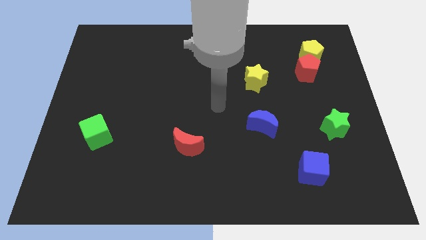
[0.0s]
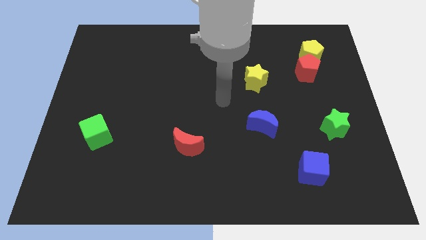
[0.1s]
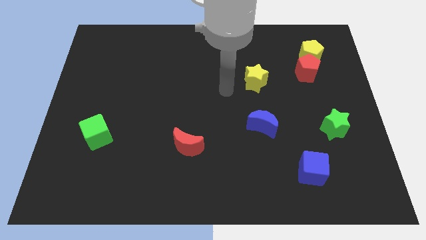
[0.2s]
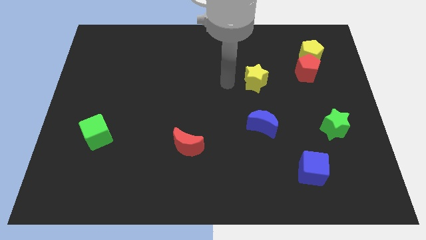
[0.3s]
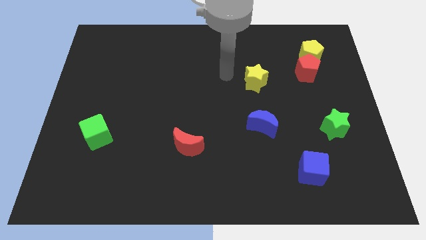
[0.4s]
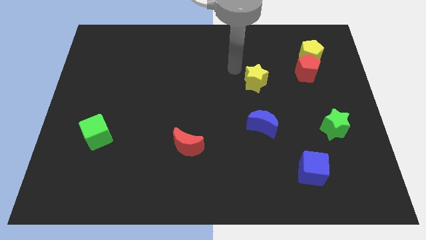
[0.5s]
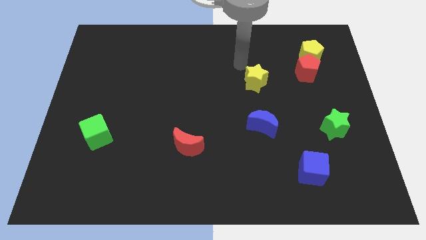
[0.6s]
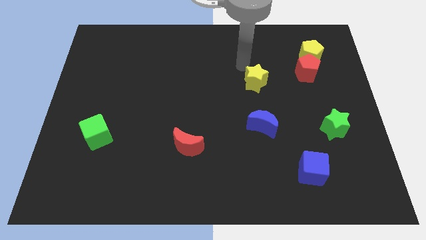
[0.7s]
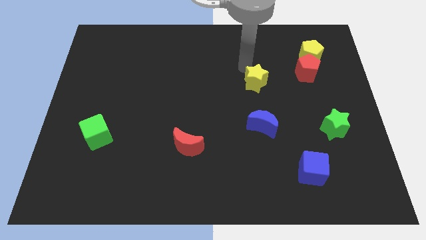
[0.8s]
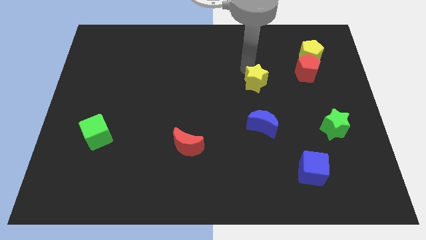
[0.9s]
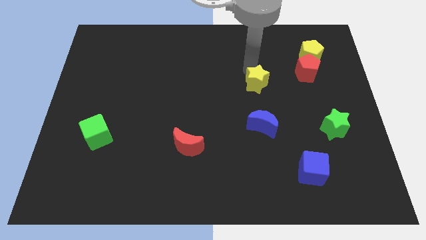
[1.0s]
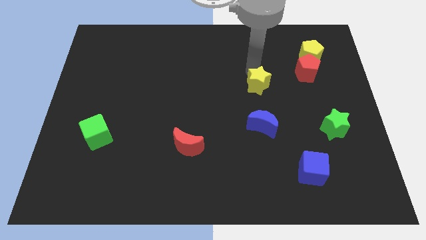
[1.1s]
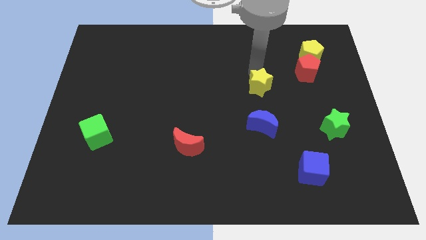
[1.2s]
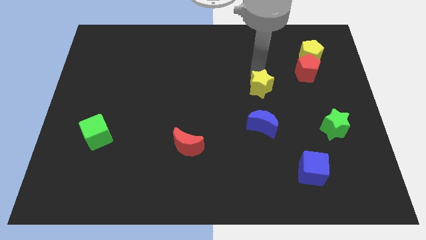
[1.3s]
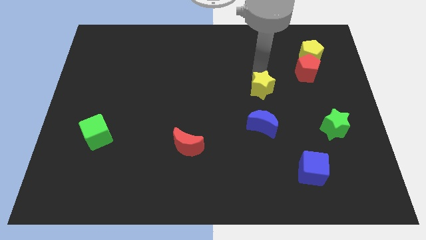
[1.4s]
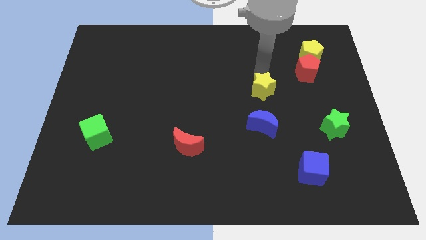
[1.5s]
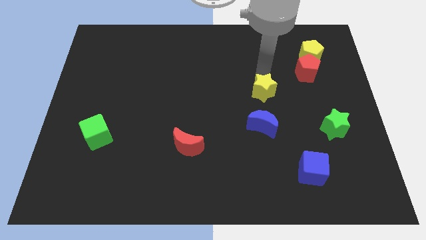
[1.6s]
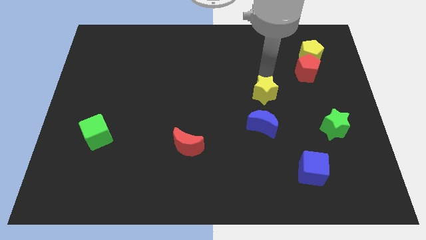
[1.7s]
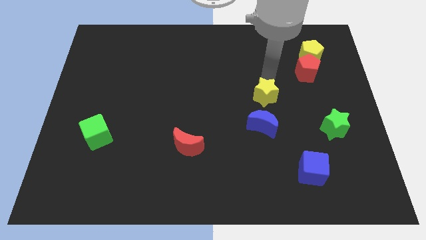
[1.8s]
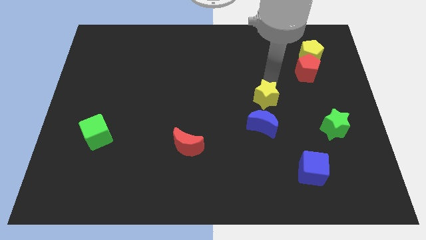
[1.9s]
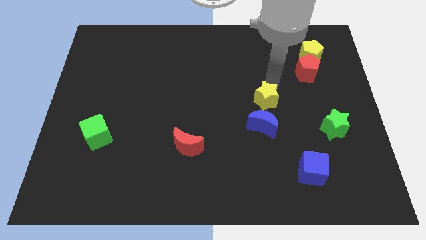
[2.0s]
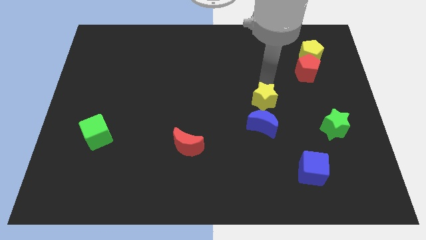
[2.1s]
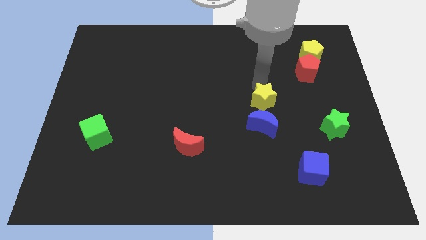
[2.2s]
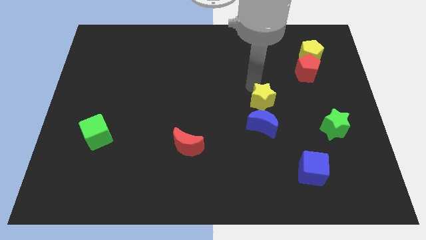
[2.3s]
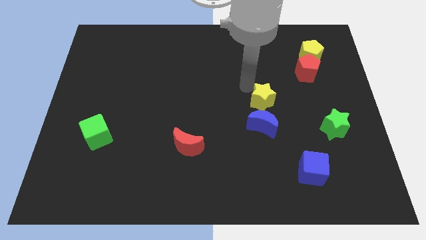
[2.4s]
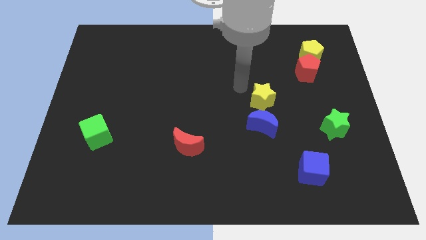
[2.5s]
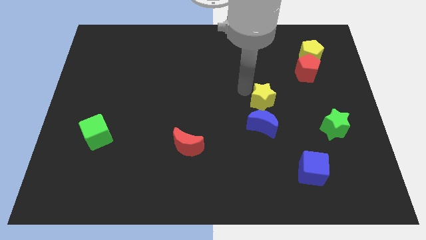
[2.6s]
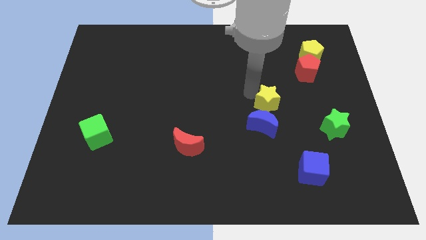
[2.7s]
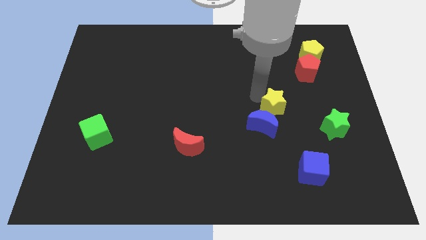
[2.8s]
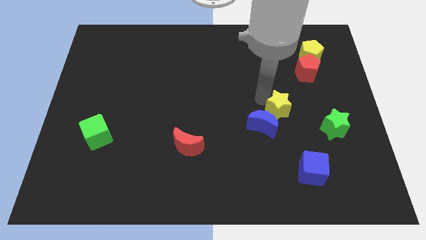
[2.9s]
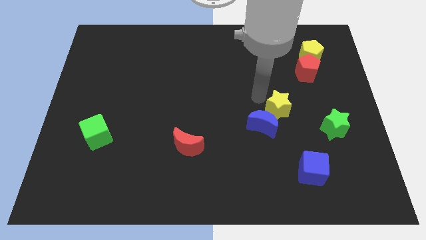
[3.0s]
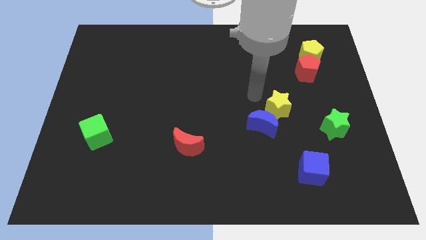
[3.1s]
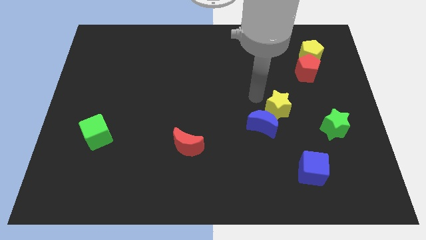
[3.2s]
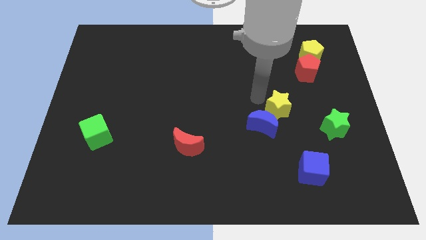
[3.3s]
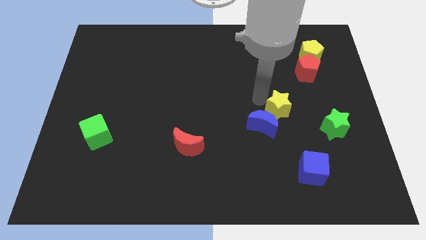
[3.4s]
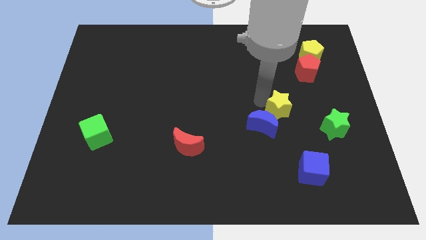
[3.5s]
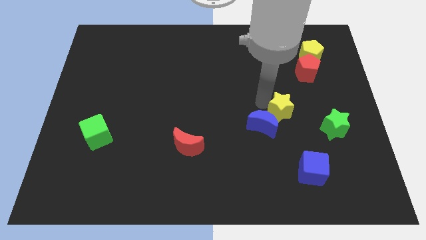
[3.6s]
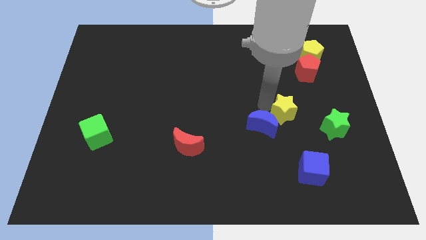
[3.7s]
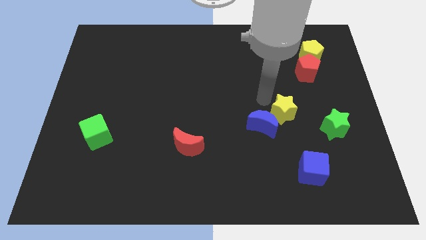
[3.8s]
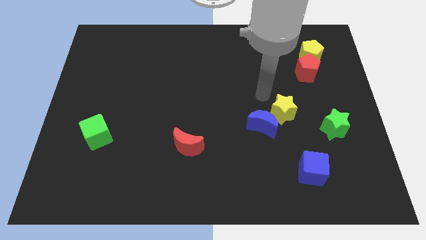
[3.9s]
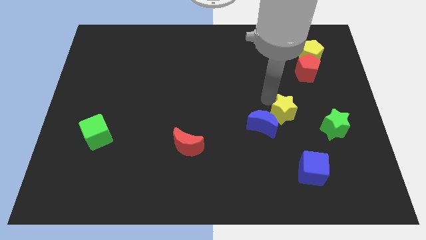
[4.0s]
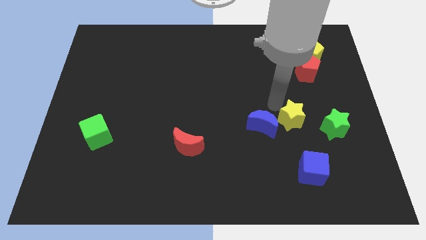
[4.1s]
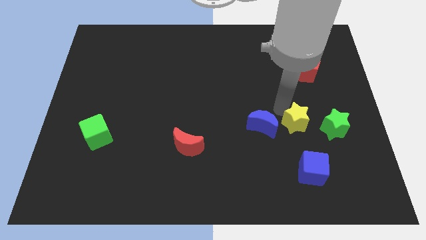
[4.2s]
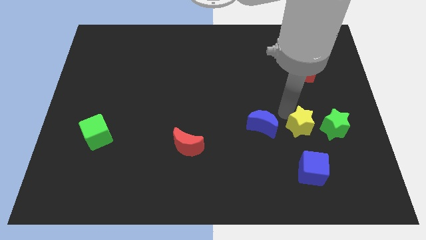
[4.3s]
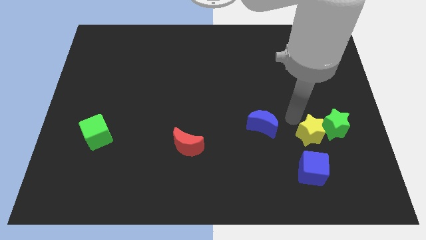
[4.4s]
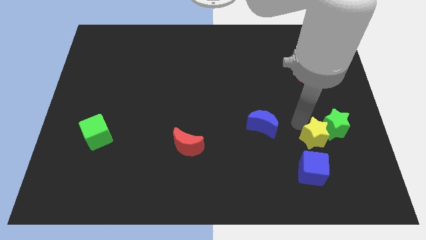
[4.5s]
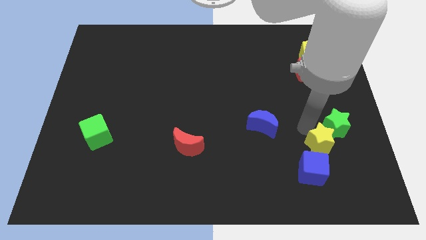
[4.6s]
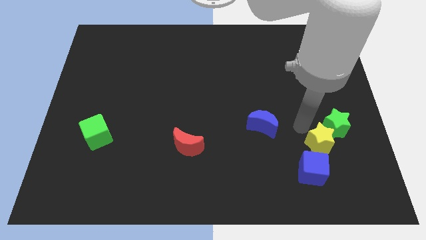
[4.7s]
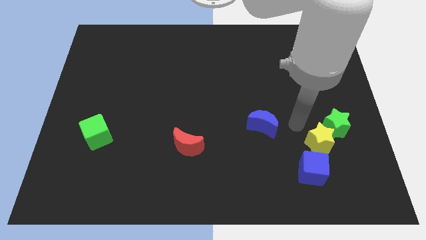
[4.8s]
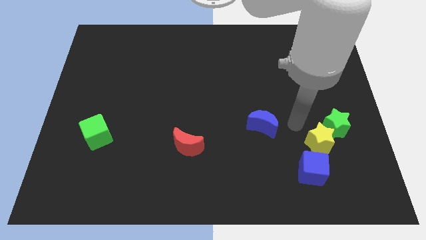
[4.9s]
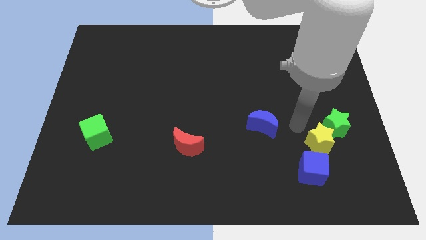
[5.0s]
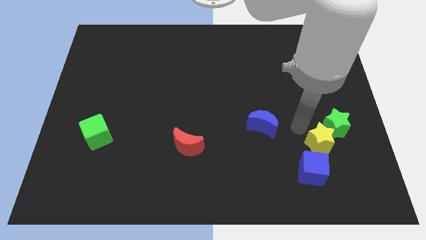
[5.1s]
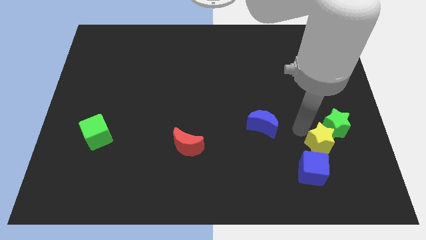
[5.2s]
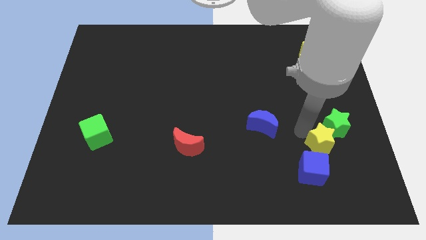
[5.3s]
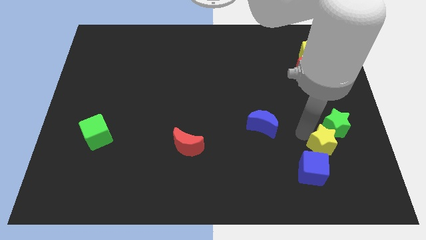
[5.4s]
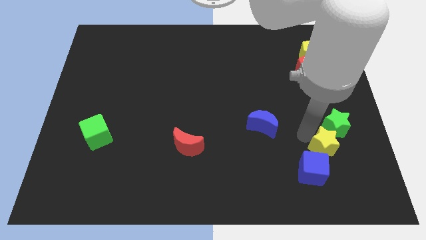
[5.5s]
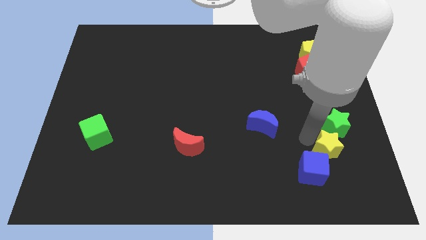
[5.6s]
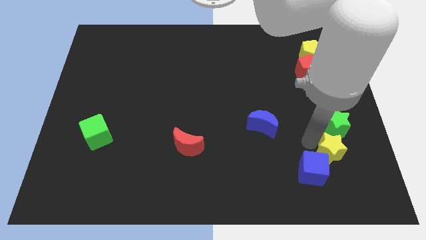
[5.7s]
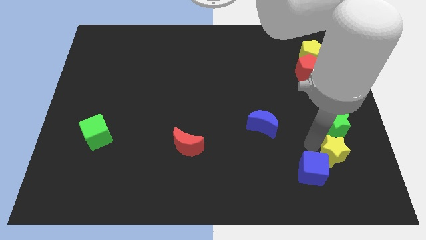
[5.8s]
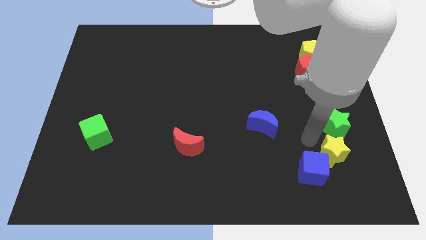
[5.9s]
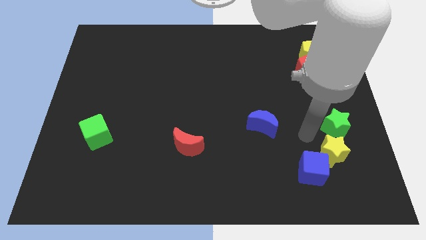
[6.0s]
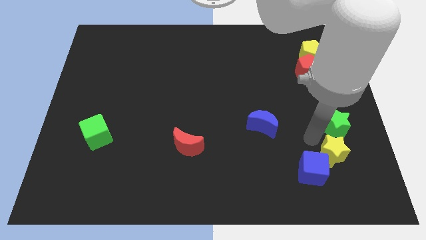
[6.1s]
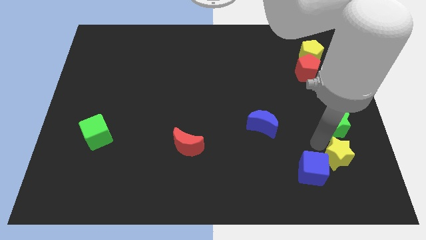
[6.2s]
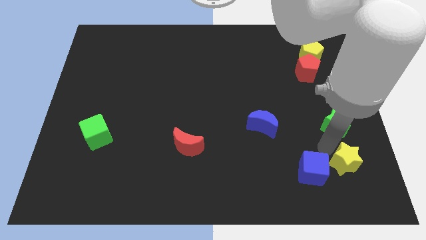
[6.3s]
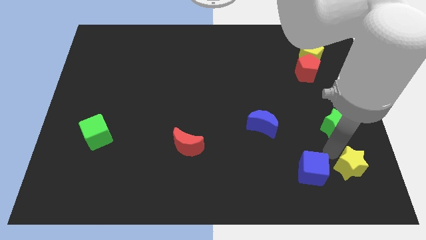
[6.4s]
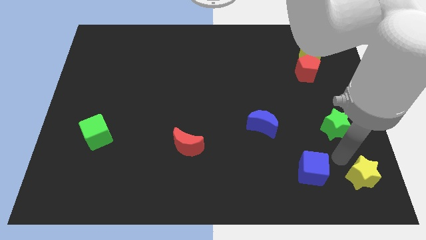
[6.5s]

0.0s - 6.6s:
put the yellow star to the bottom right of the board

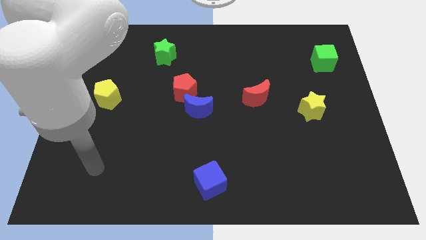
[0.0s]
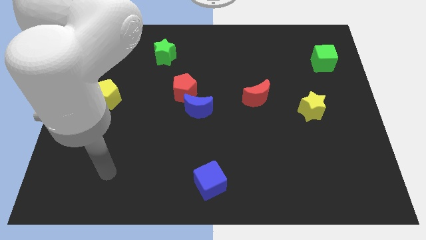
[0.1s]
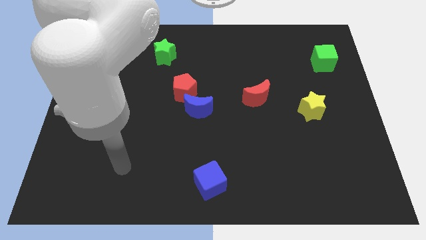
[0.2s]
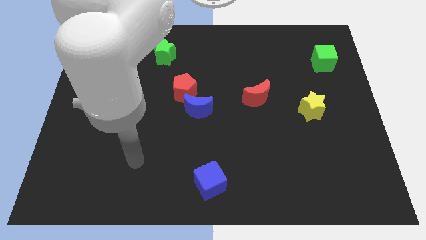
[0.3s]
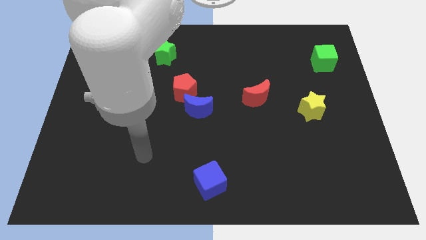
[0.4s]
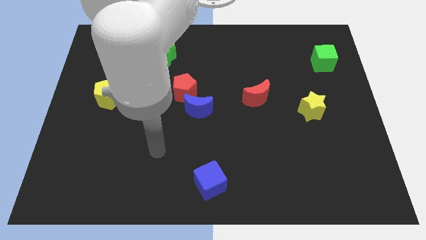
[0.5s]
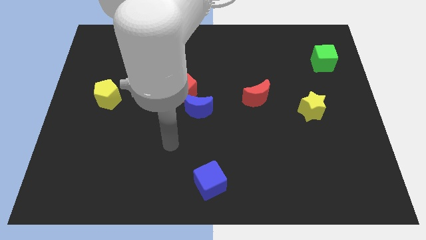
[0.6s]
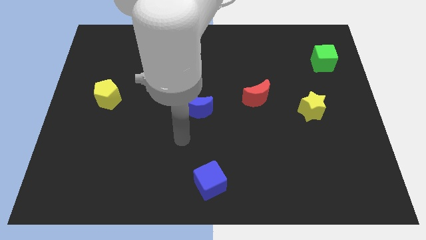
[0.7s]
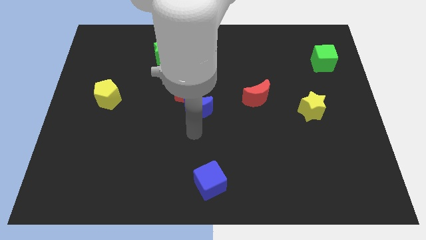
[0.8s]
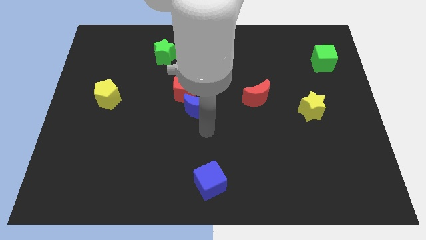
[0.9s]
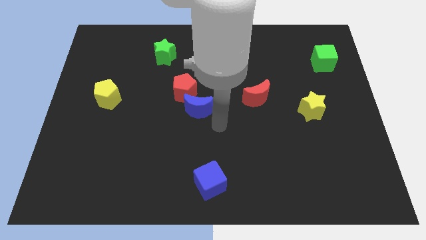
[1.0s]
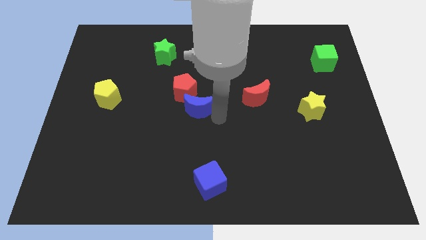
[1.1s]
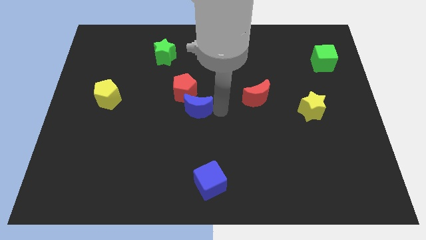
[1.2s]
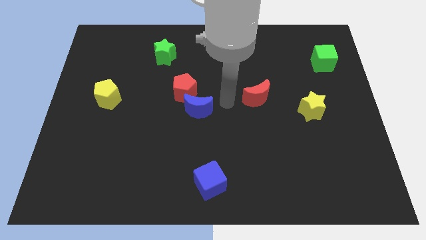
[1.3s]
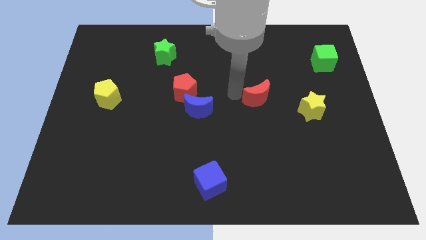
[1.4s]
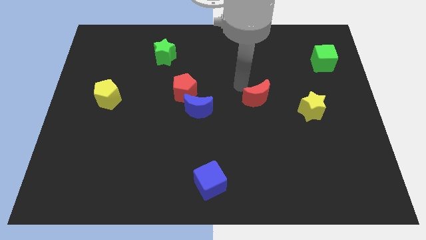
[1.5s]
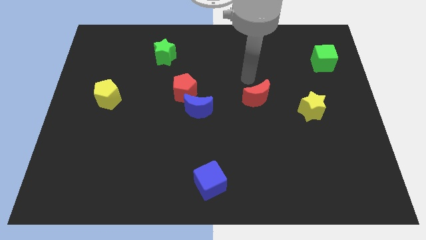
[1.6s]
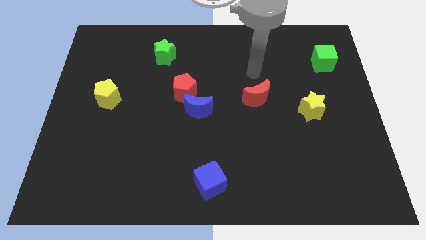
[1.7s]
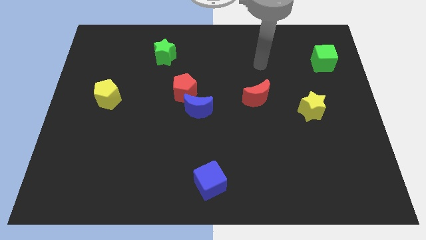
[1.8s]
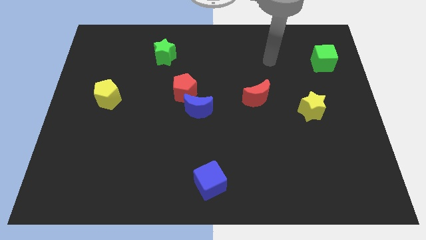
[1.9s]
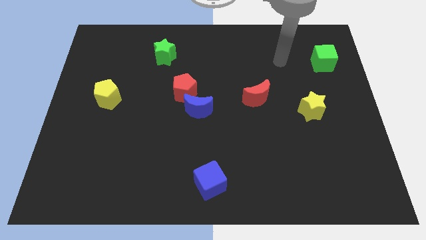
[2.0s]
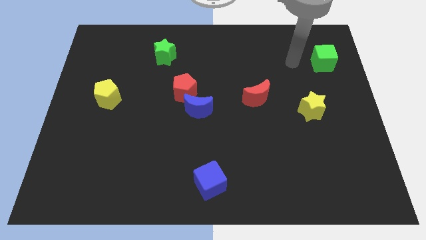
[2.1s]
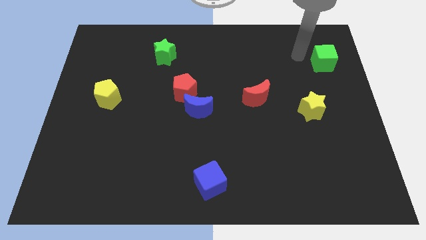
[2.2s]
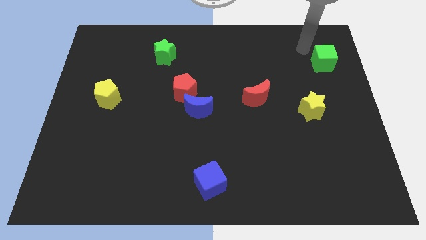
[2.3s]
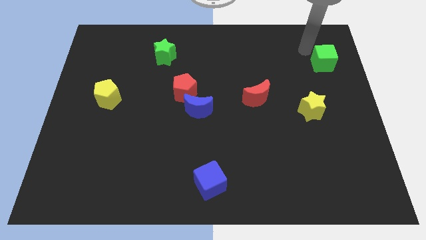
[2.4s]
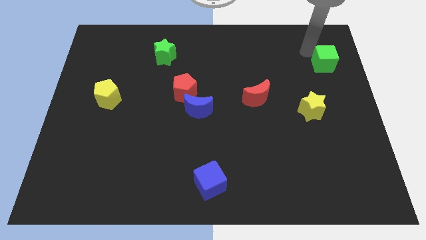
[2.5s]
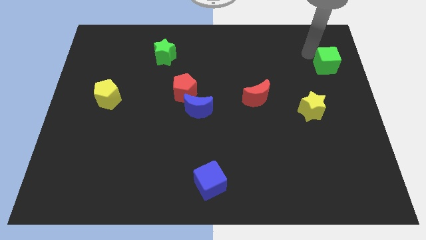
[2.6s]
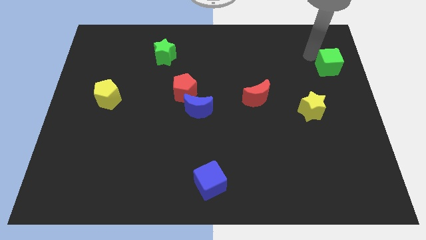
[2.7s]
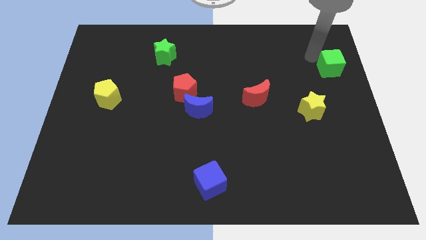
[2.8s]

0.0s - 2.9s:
move the green cube to the right side
